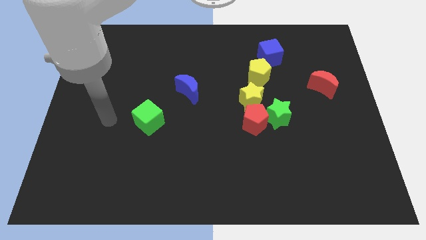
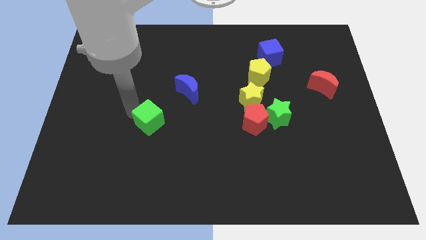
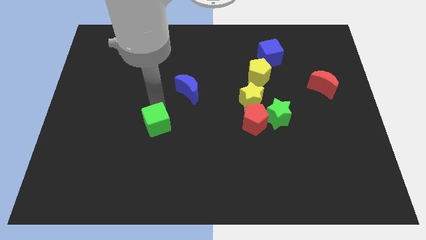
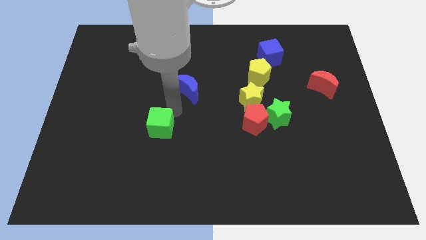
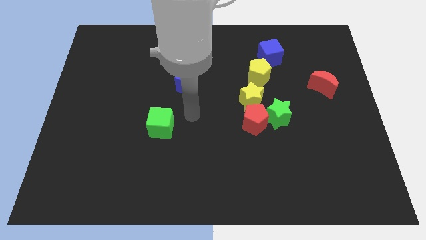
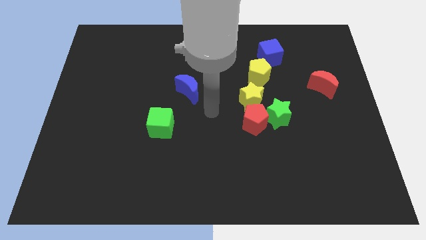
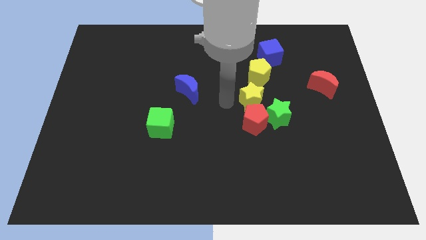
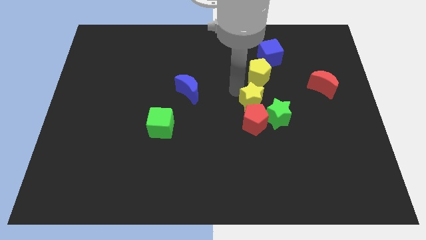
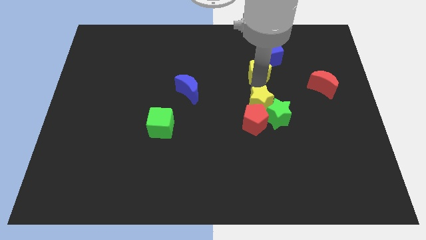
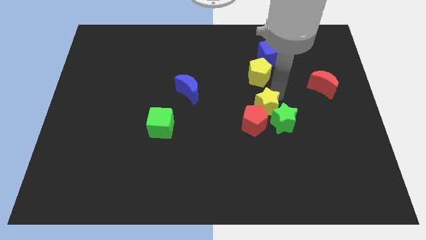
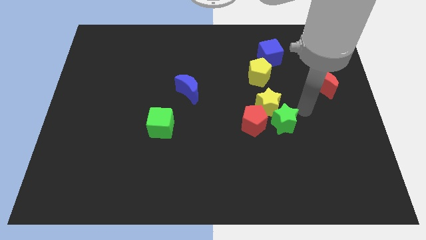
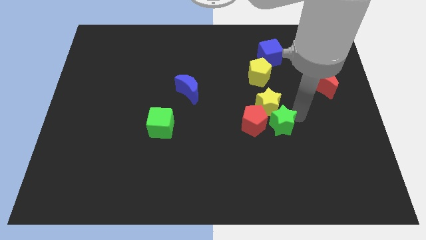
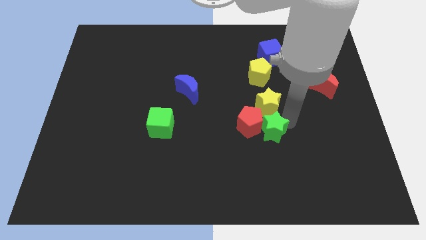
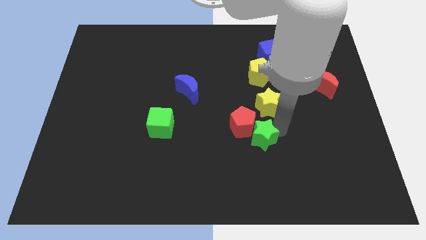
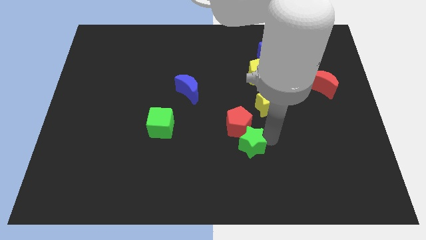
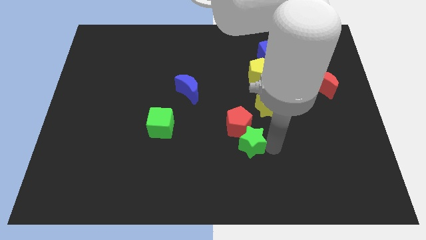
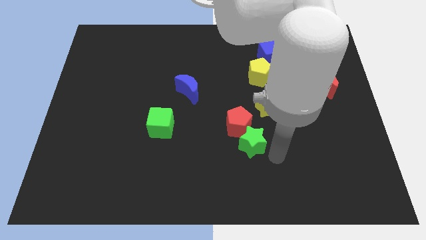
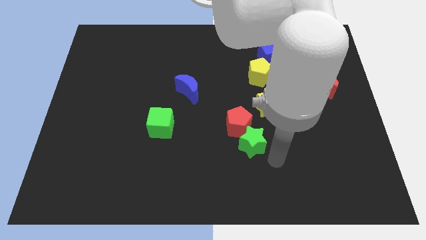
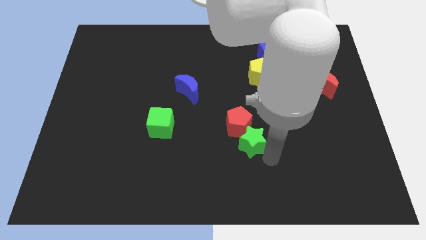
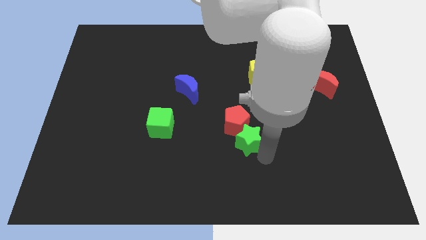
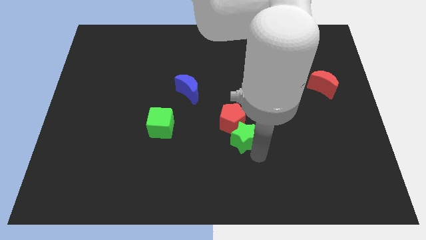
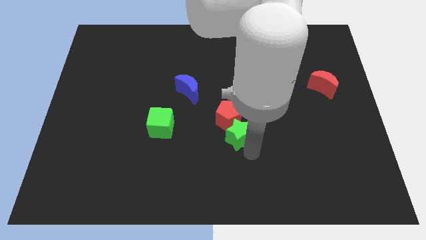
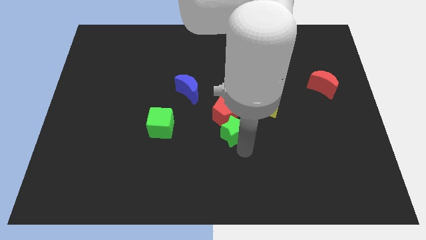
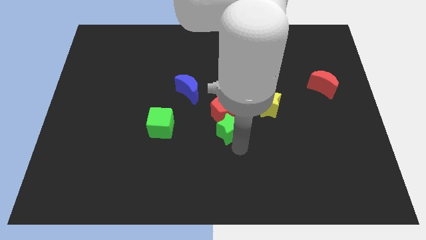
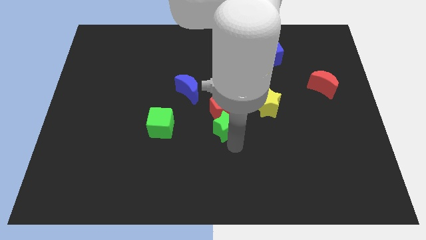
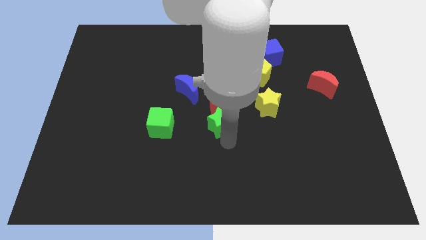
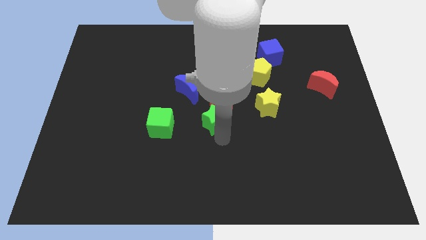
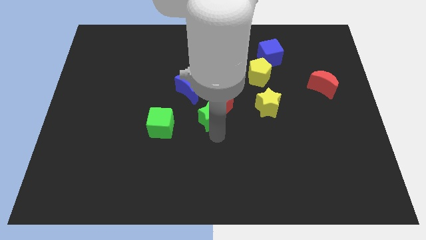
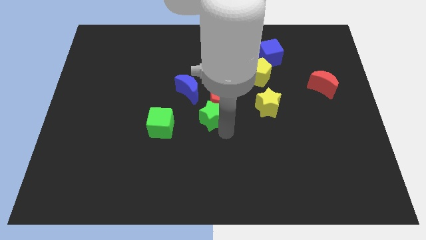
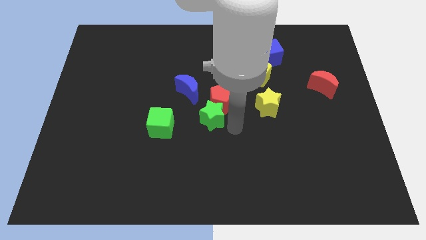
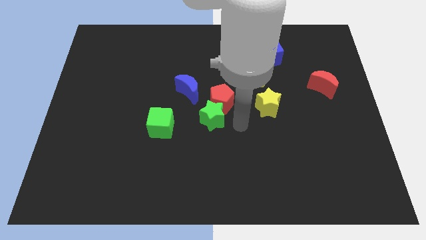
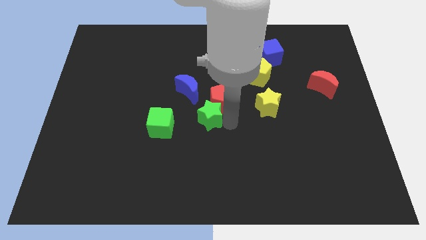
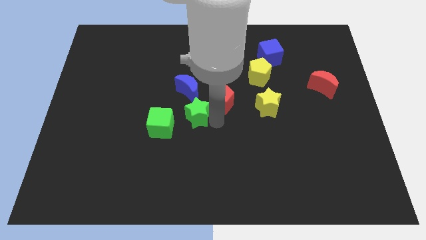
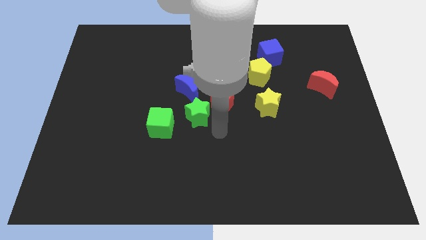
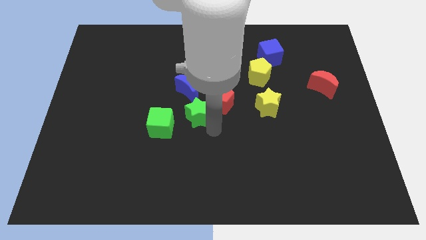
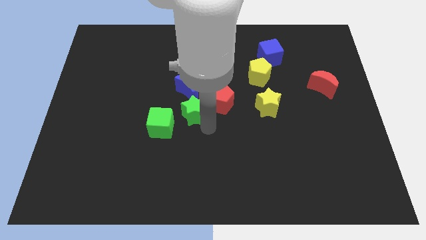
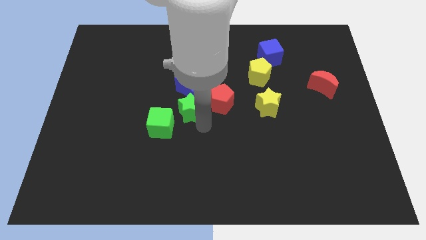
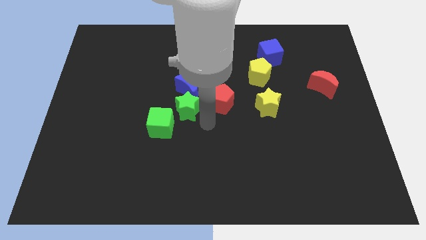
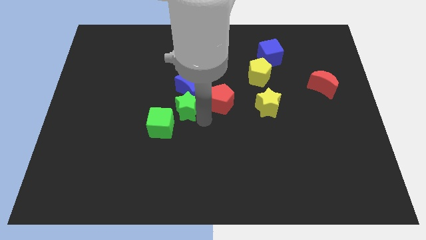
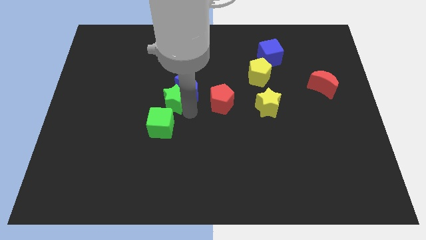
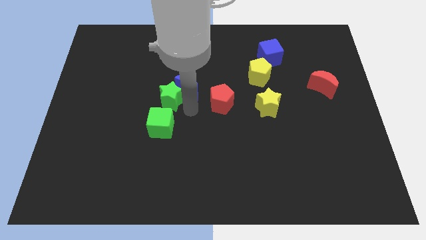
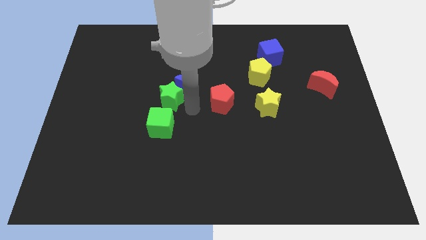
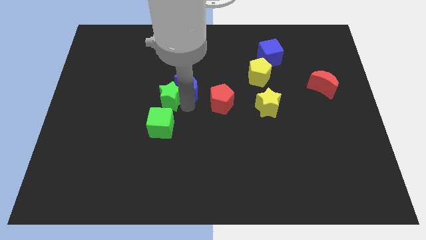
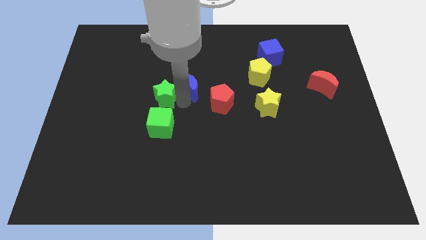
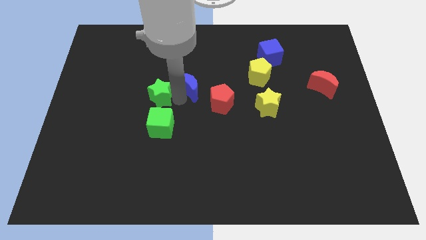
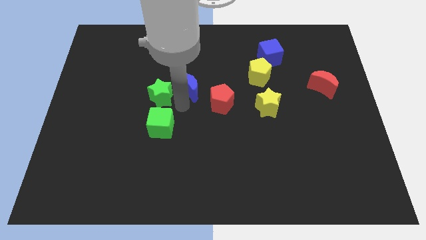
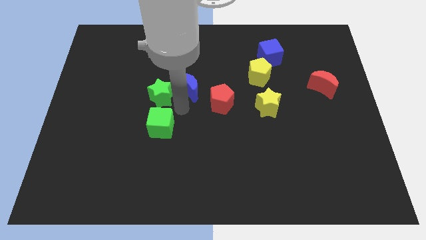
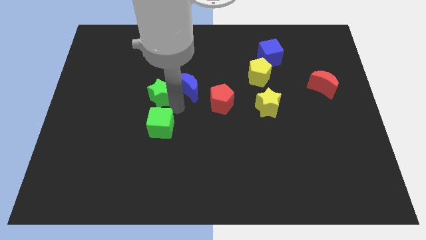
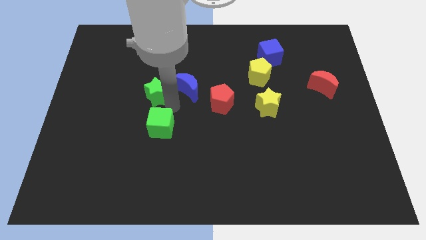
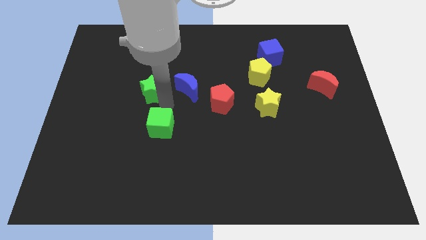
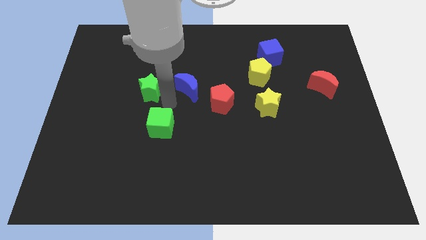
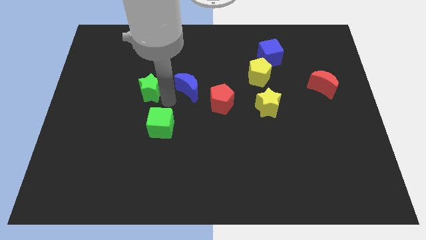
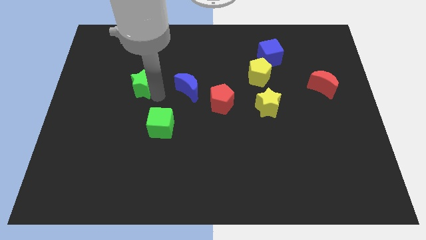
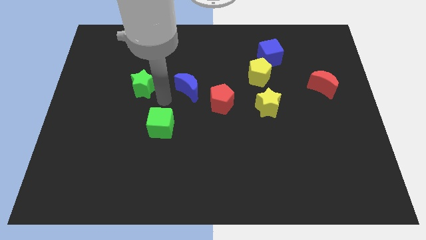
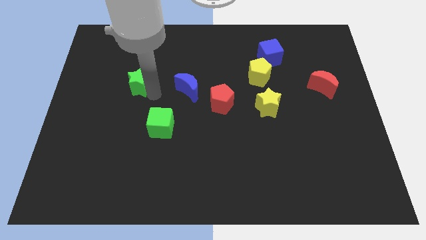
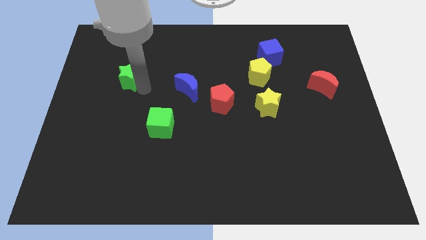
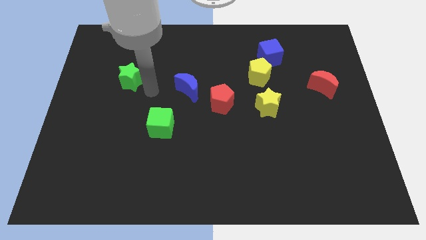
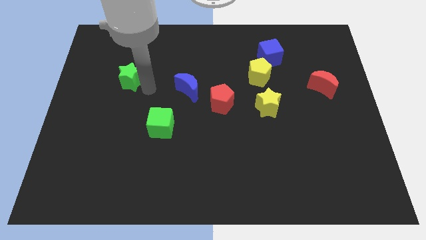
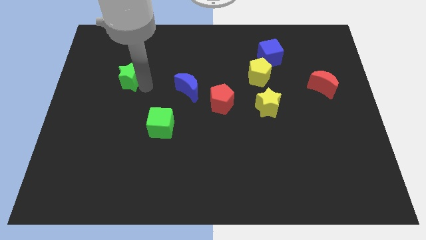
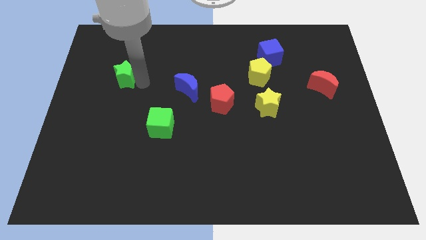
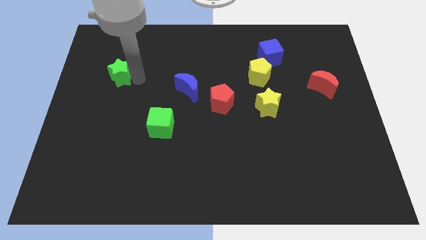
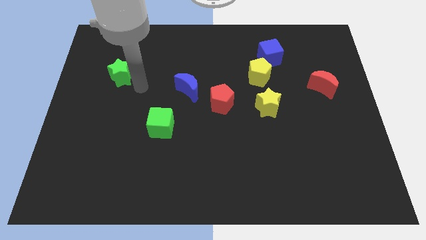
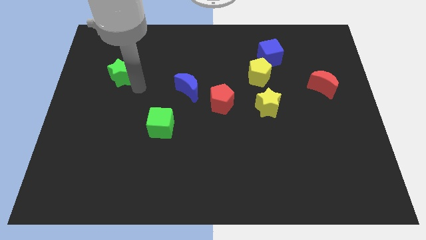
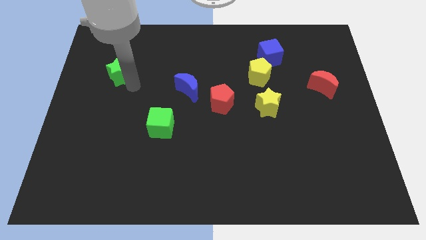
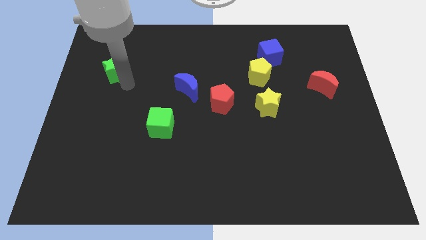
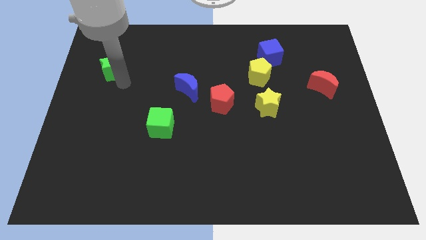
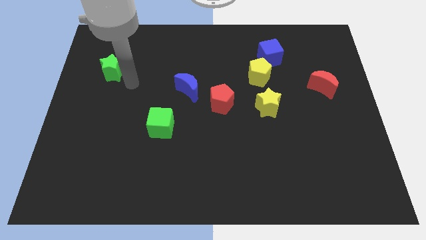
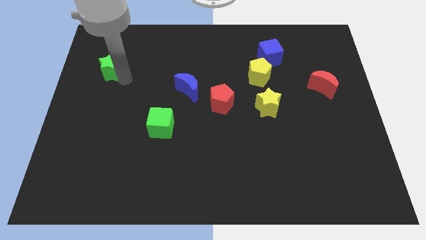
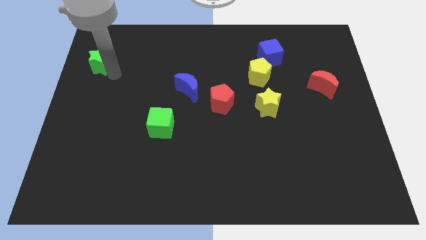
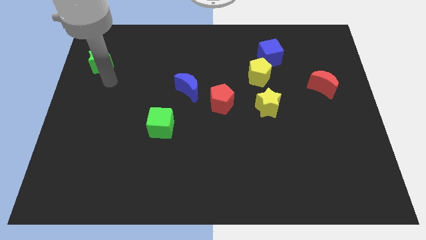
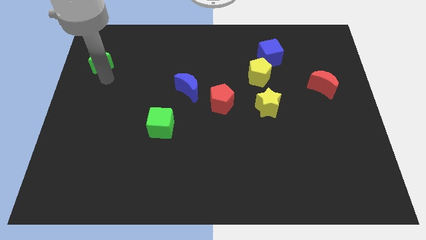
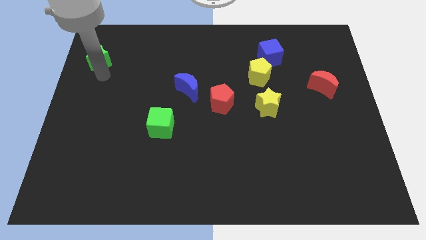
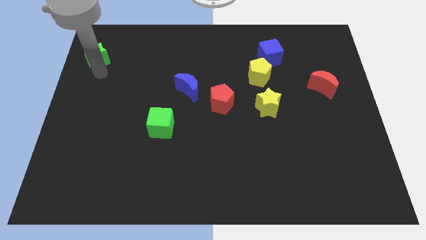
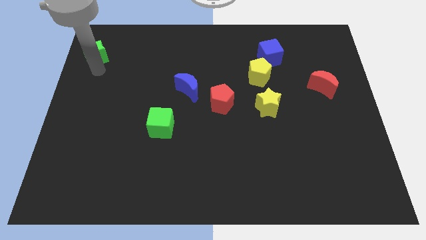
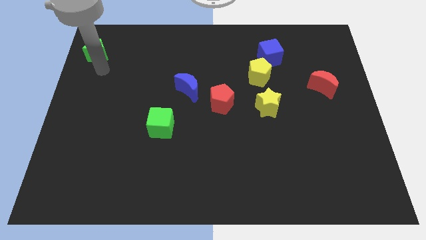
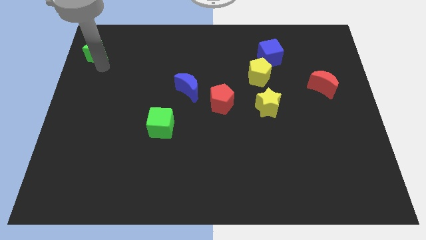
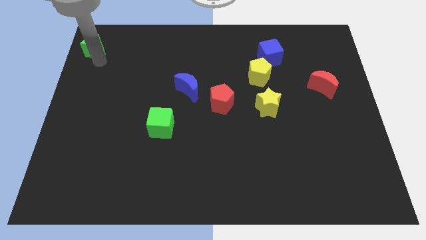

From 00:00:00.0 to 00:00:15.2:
put the green star to the top left of the board
